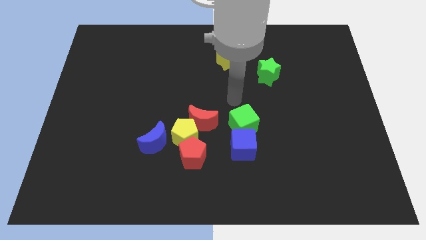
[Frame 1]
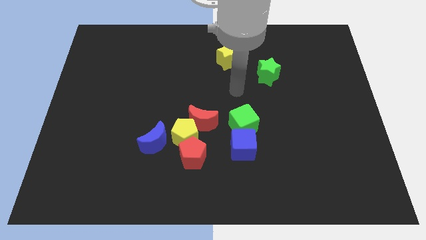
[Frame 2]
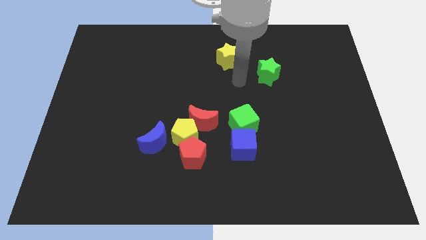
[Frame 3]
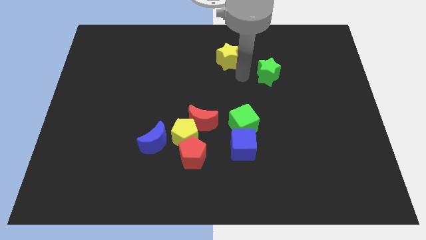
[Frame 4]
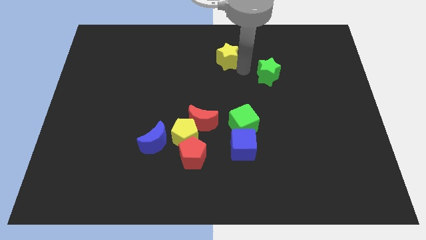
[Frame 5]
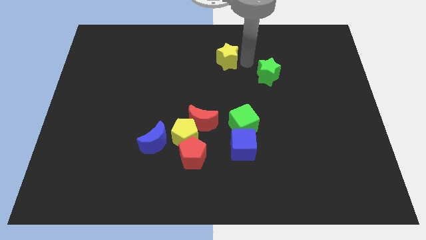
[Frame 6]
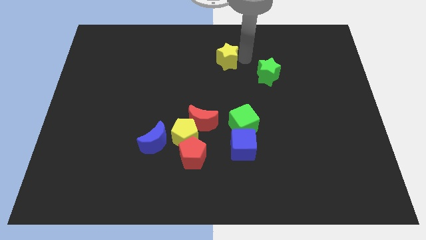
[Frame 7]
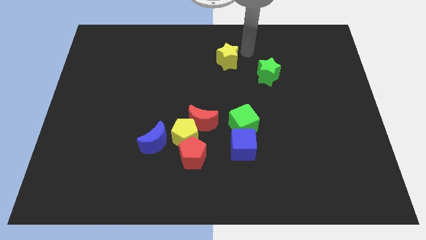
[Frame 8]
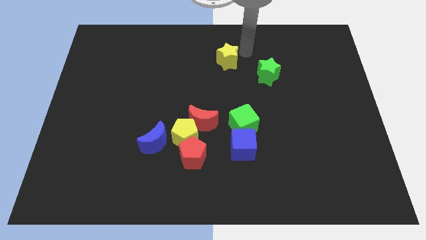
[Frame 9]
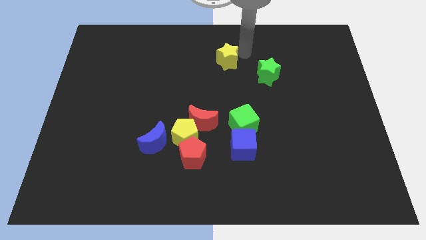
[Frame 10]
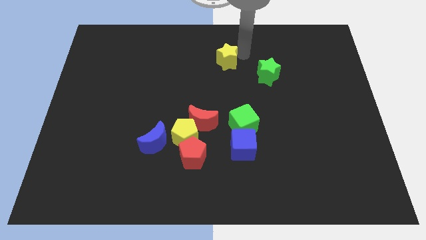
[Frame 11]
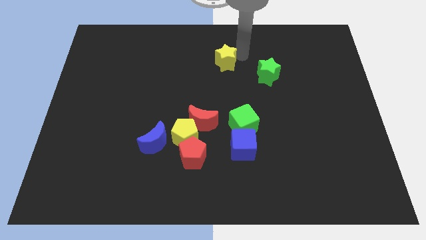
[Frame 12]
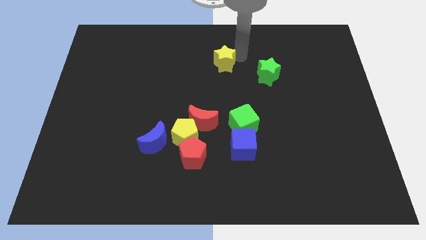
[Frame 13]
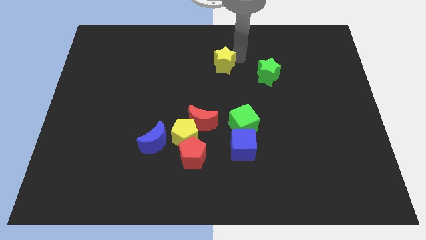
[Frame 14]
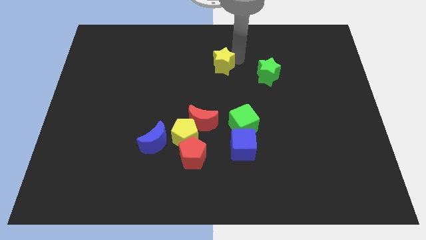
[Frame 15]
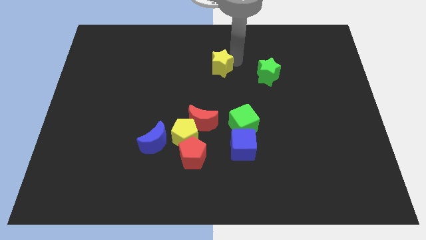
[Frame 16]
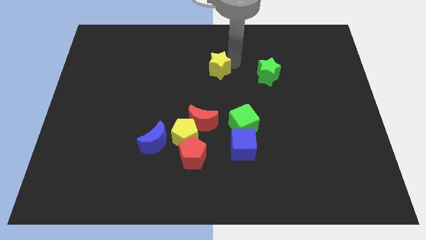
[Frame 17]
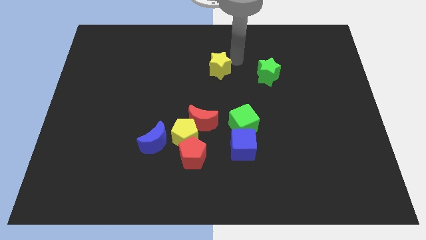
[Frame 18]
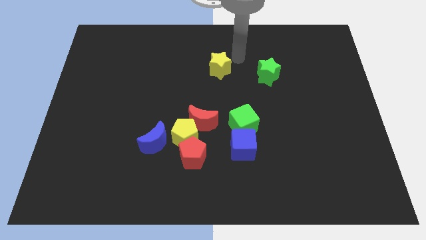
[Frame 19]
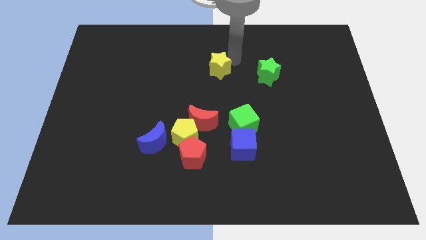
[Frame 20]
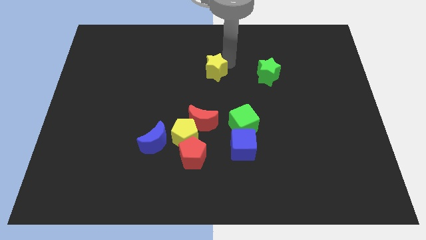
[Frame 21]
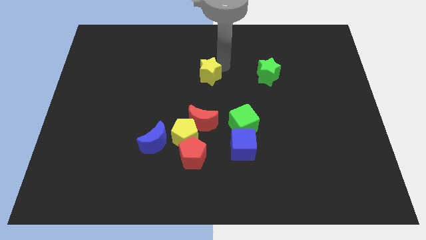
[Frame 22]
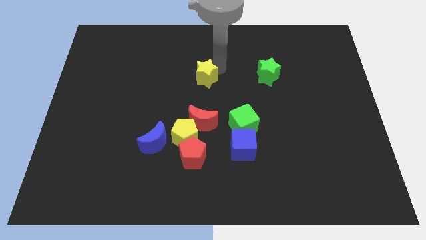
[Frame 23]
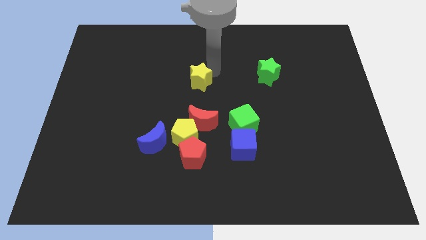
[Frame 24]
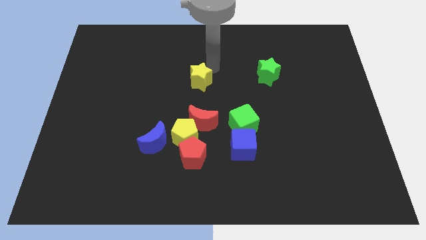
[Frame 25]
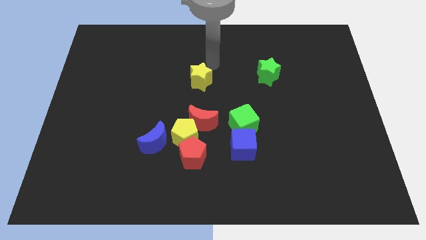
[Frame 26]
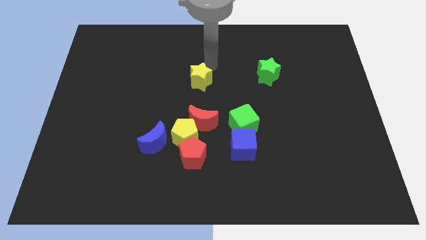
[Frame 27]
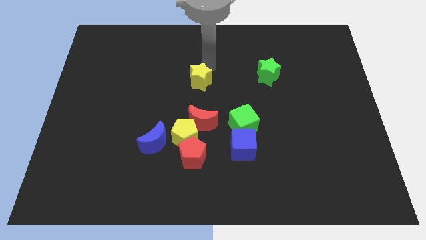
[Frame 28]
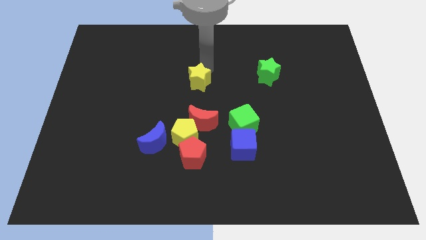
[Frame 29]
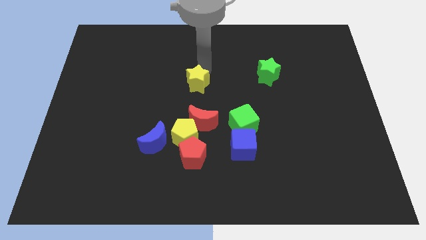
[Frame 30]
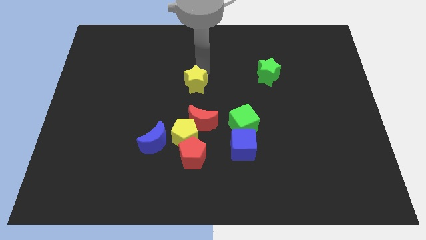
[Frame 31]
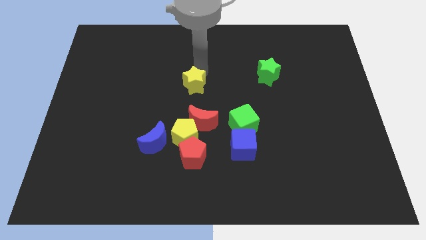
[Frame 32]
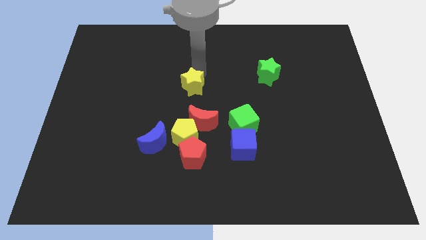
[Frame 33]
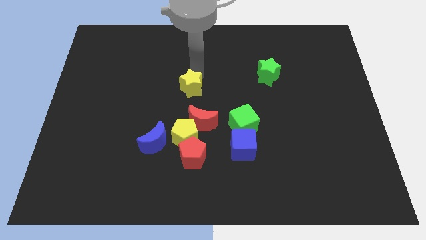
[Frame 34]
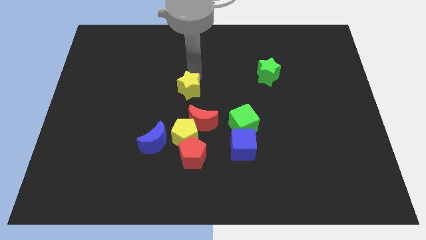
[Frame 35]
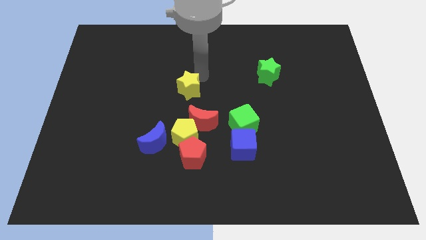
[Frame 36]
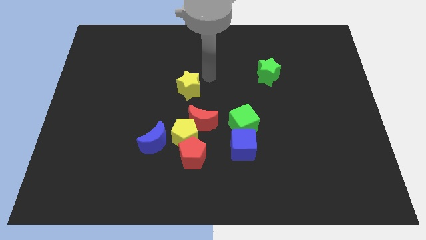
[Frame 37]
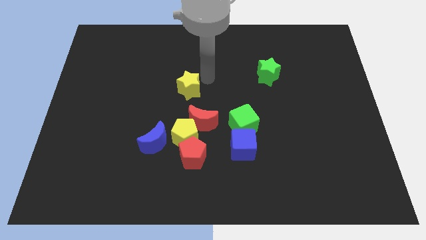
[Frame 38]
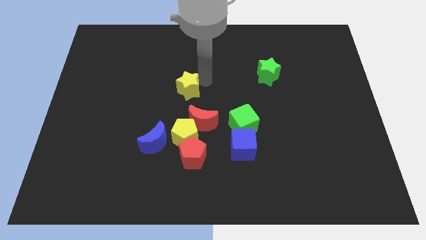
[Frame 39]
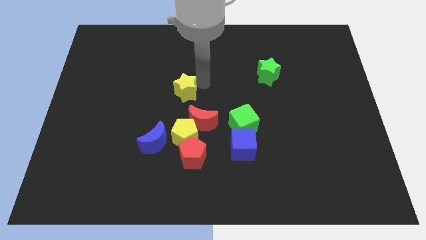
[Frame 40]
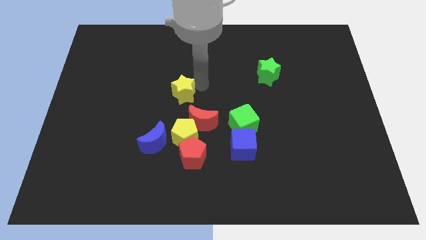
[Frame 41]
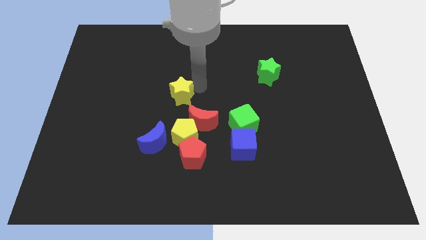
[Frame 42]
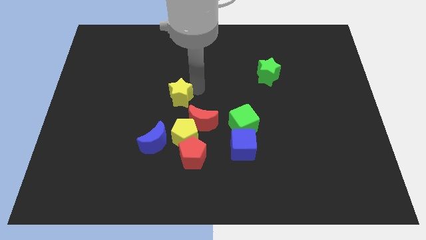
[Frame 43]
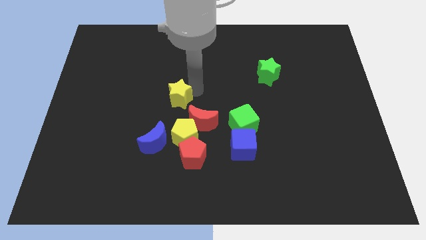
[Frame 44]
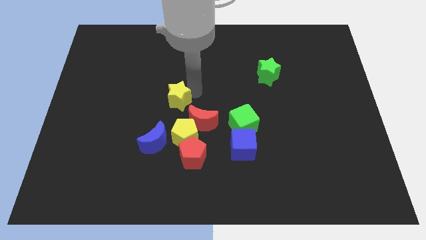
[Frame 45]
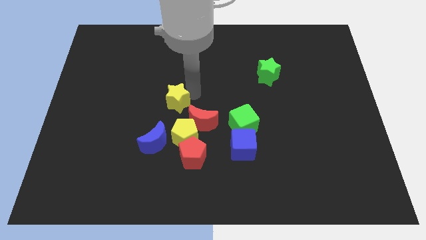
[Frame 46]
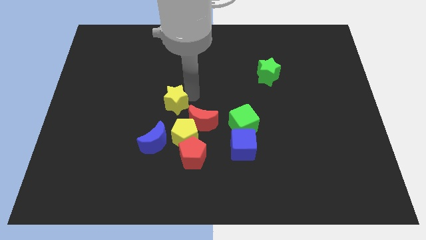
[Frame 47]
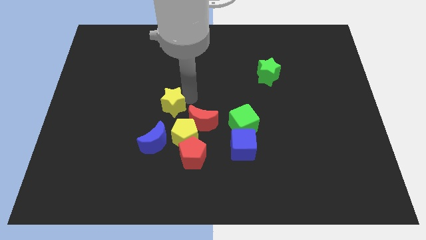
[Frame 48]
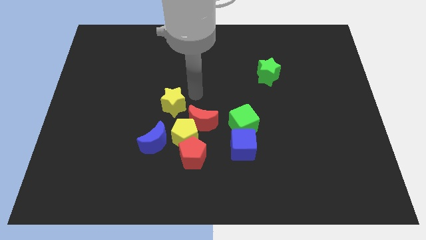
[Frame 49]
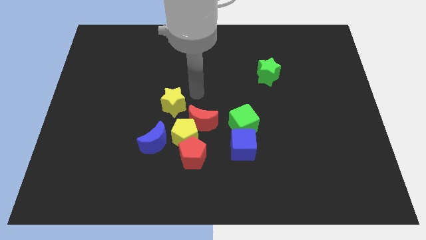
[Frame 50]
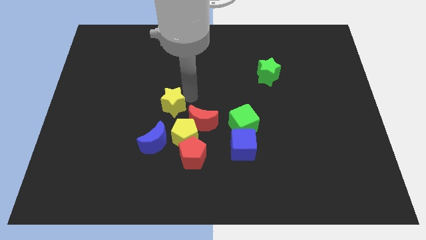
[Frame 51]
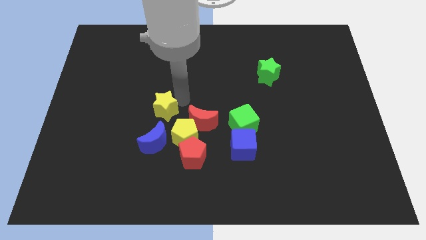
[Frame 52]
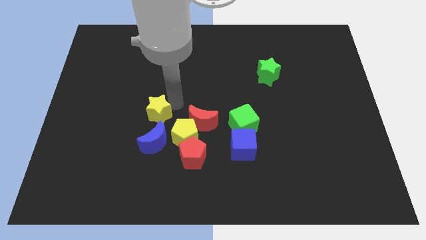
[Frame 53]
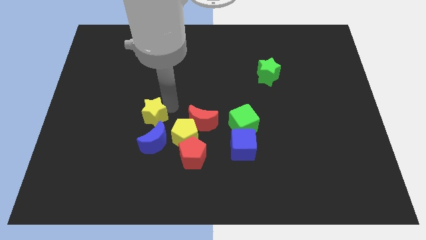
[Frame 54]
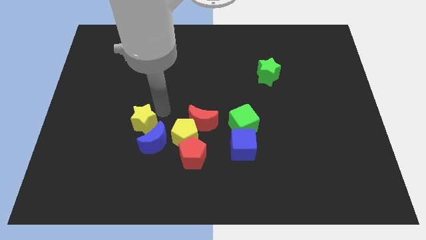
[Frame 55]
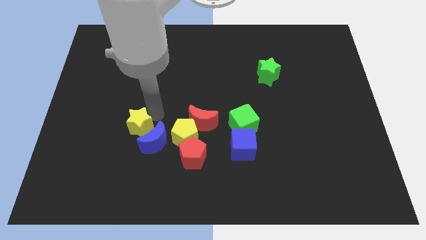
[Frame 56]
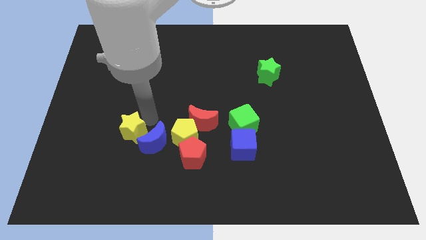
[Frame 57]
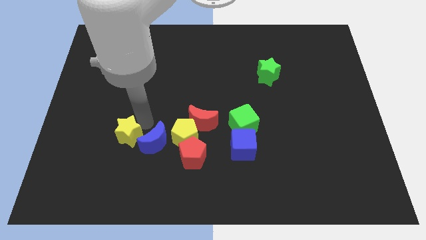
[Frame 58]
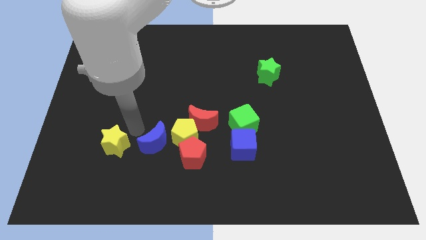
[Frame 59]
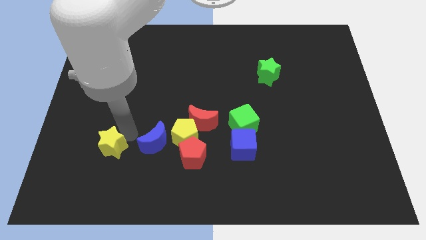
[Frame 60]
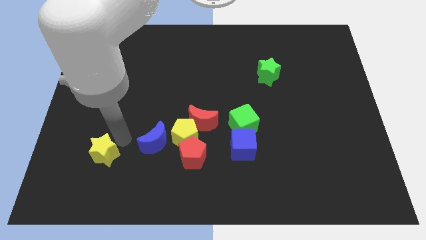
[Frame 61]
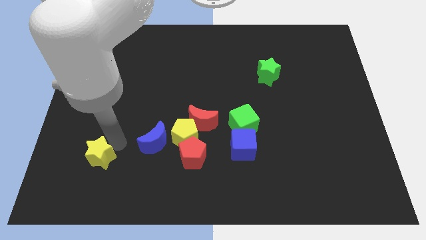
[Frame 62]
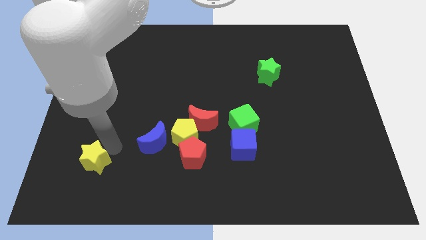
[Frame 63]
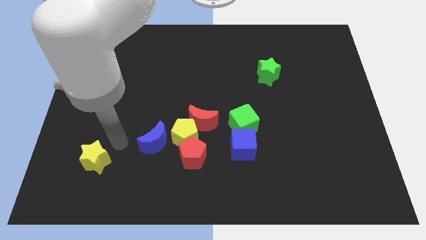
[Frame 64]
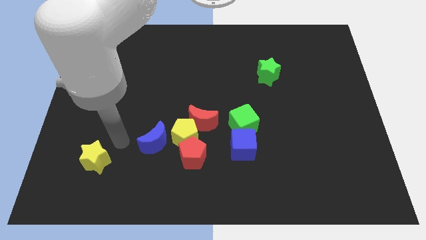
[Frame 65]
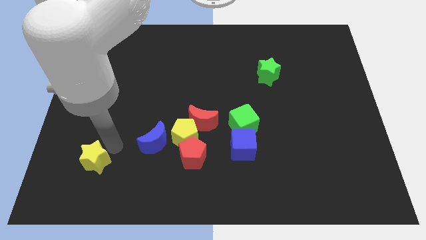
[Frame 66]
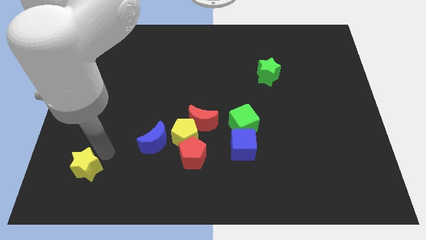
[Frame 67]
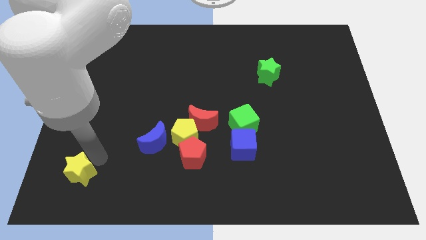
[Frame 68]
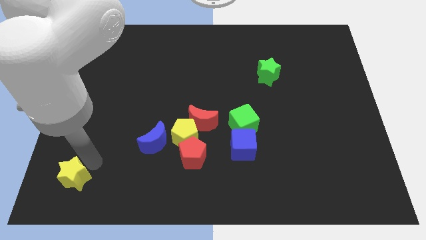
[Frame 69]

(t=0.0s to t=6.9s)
slide the yellow star to the bottom left of the board

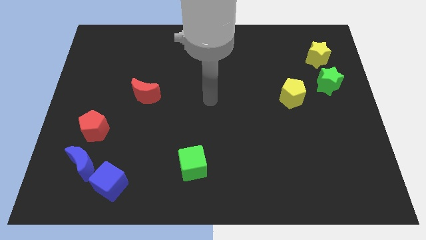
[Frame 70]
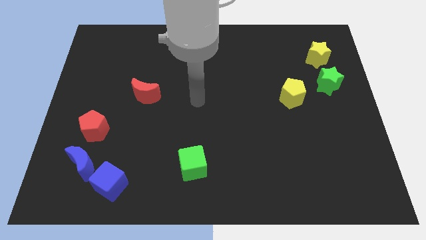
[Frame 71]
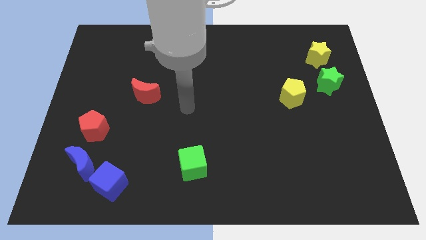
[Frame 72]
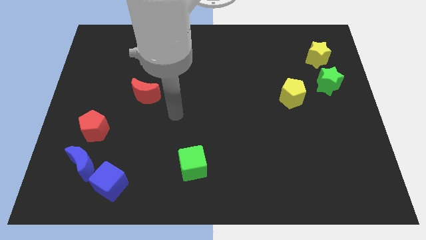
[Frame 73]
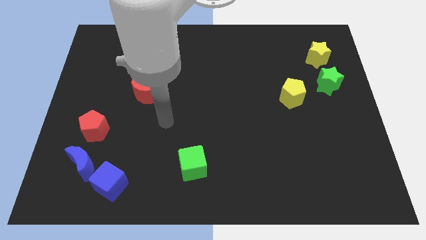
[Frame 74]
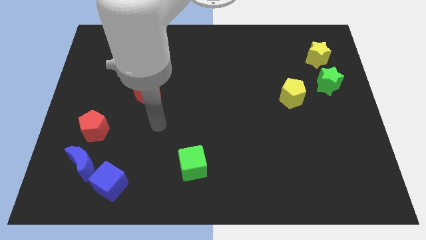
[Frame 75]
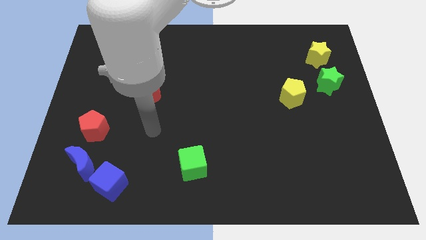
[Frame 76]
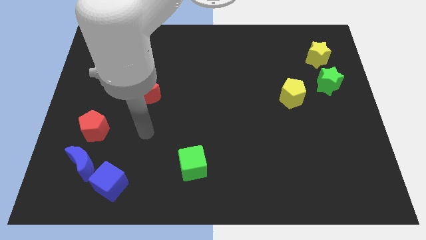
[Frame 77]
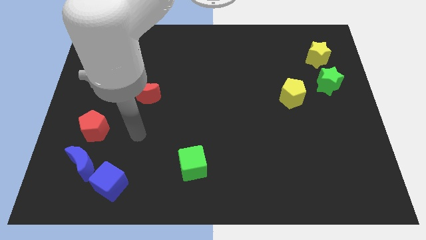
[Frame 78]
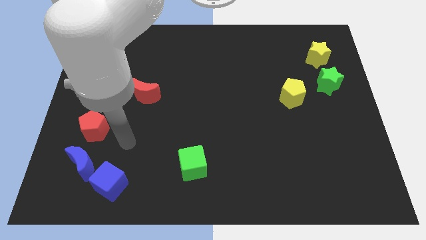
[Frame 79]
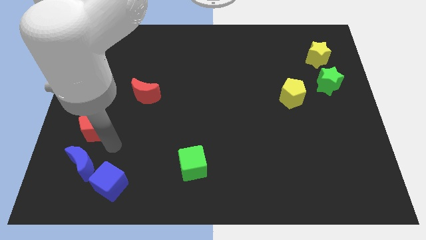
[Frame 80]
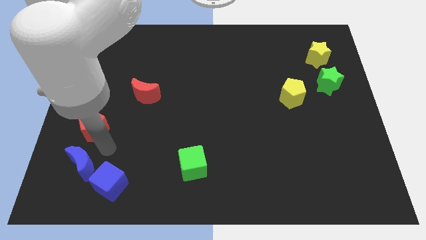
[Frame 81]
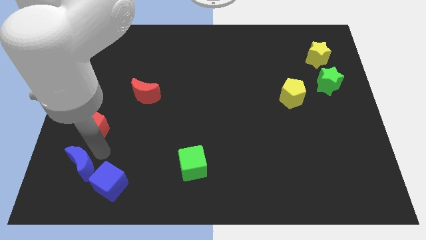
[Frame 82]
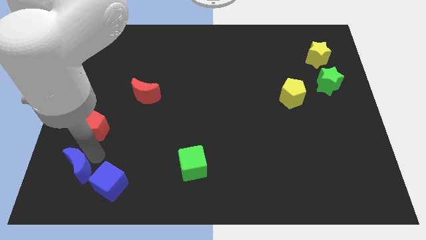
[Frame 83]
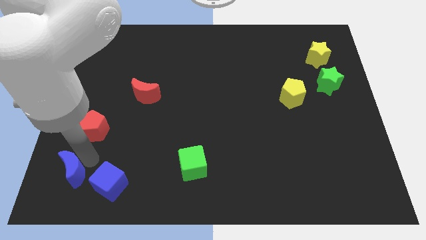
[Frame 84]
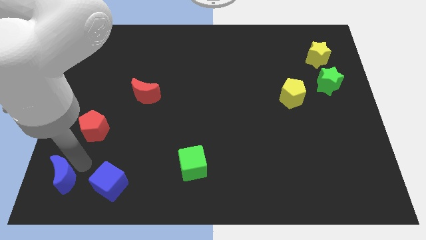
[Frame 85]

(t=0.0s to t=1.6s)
push the blue moon to the bottom left corner
